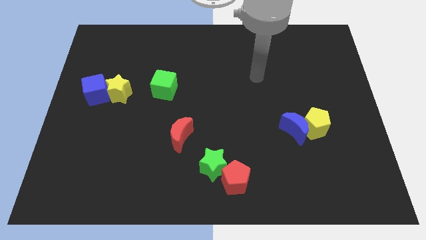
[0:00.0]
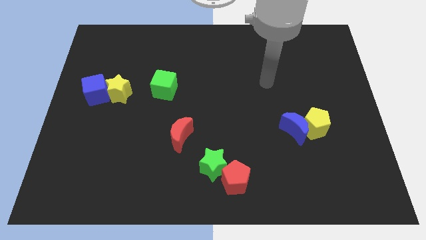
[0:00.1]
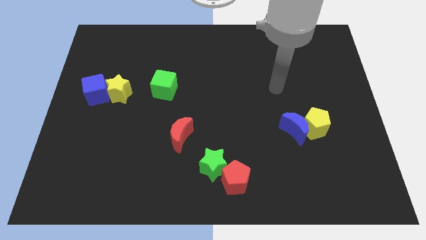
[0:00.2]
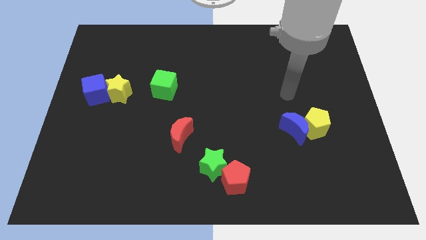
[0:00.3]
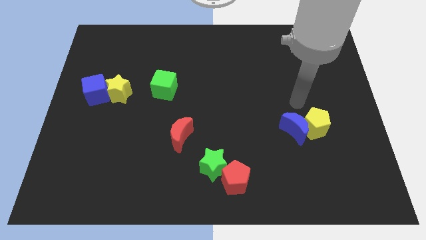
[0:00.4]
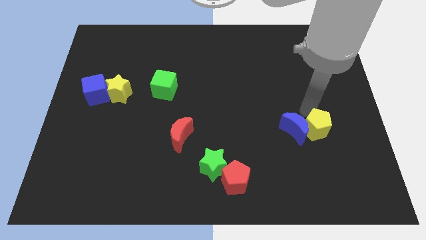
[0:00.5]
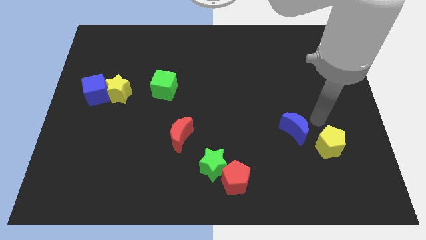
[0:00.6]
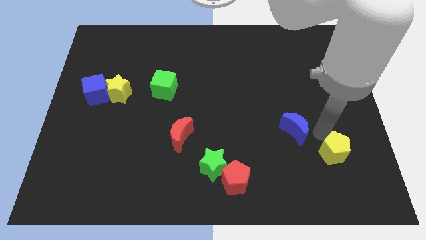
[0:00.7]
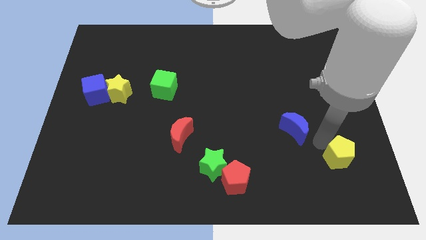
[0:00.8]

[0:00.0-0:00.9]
separate the blue moon from the yellow pentagon

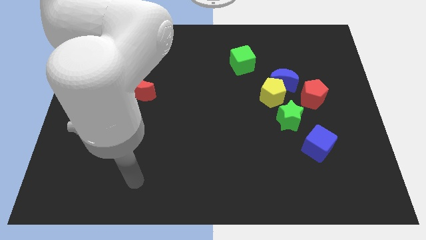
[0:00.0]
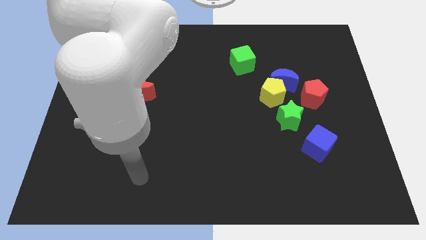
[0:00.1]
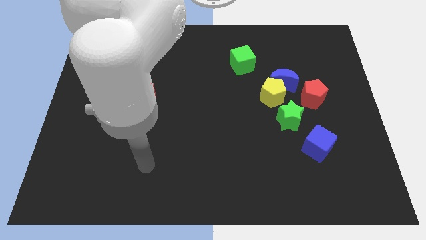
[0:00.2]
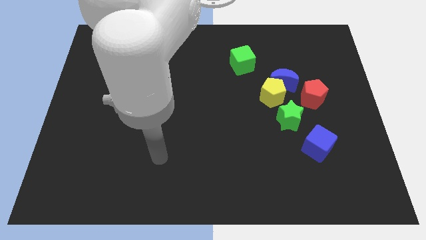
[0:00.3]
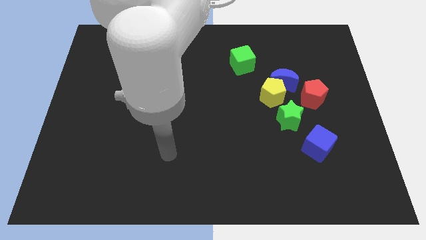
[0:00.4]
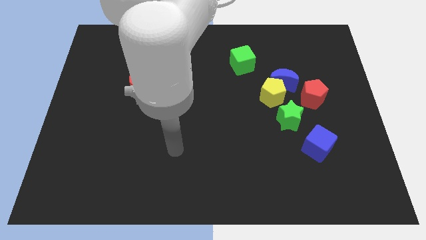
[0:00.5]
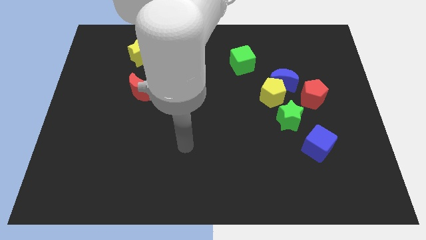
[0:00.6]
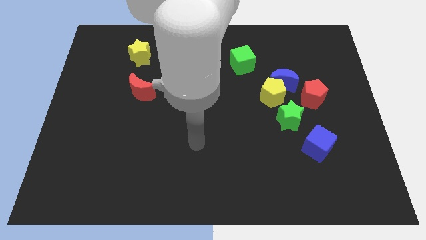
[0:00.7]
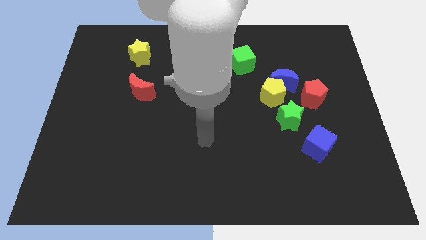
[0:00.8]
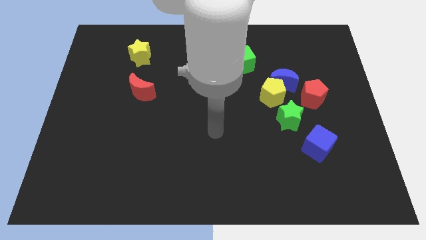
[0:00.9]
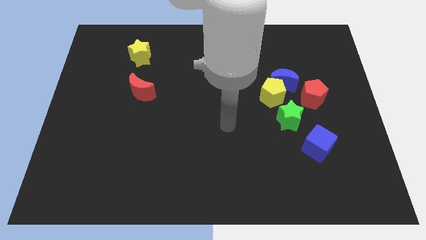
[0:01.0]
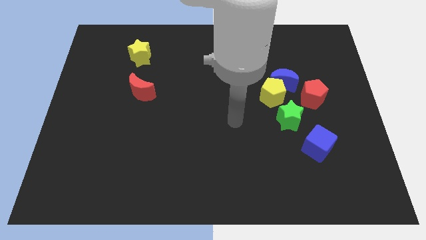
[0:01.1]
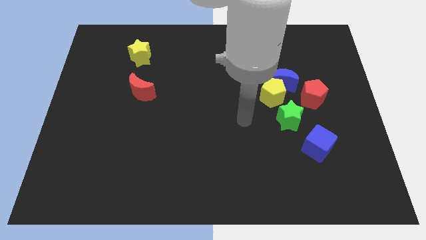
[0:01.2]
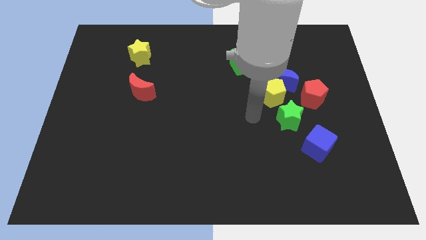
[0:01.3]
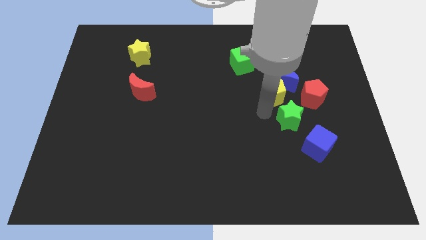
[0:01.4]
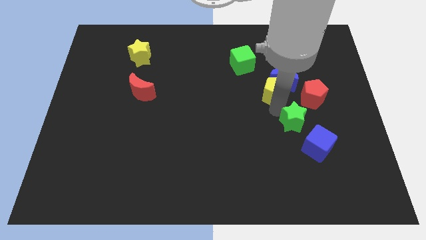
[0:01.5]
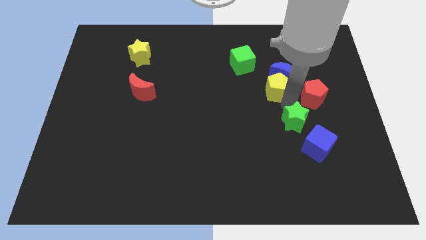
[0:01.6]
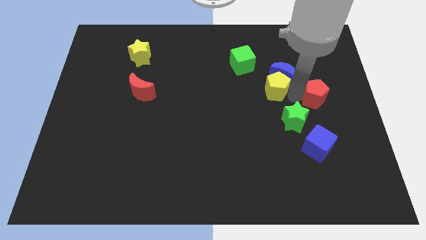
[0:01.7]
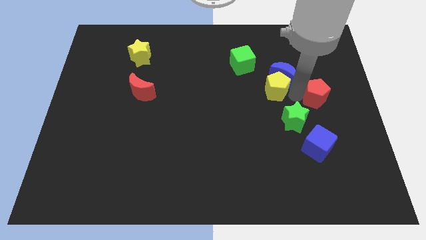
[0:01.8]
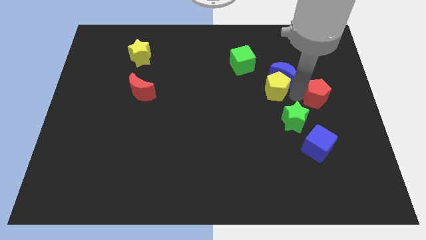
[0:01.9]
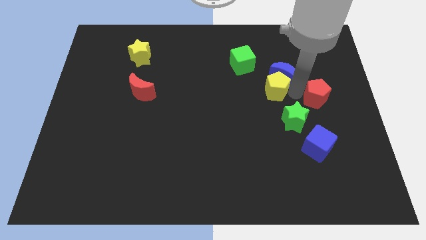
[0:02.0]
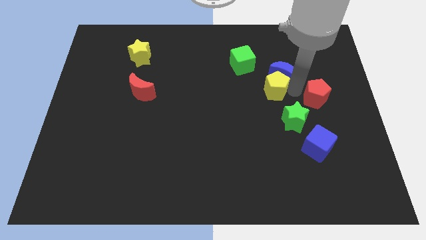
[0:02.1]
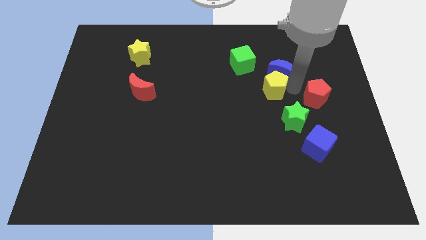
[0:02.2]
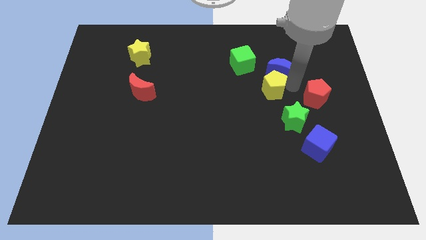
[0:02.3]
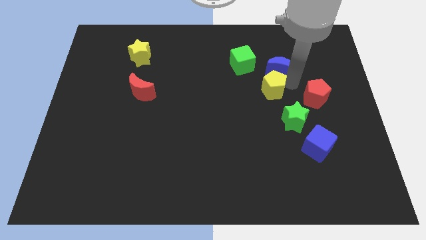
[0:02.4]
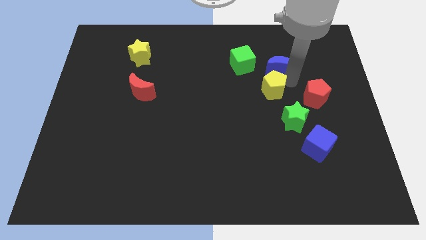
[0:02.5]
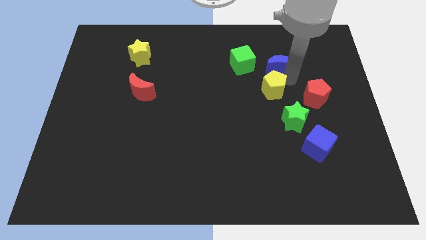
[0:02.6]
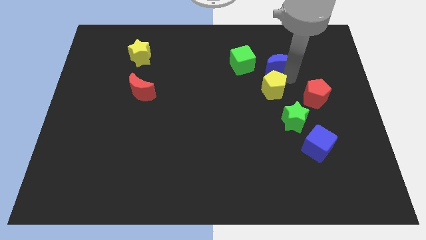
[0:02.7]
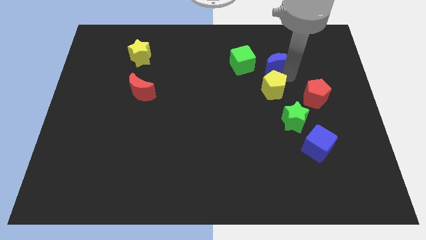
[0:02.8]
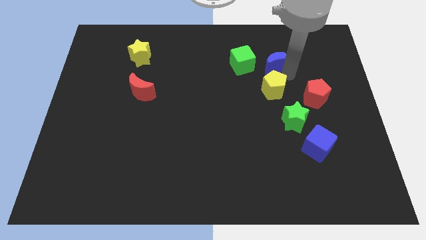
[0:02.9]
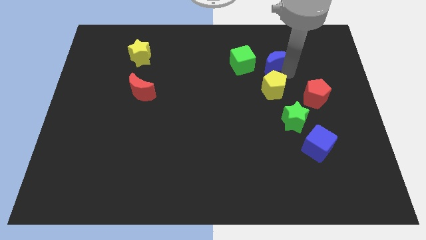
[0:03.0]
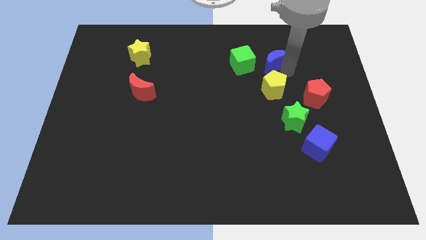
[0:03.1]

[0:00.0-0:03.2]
separate the blue moon from the yellow pentagon and red pentagon

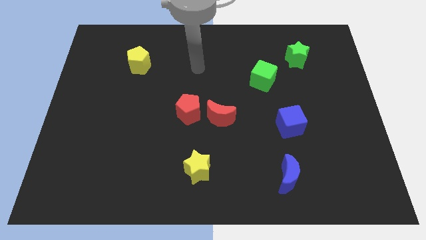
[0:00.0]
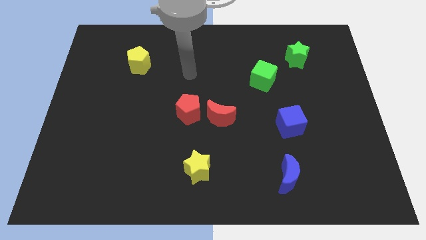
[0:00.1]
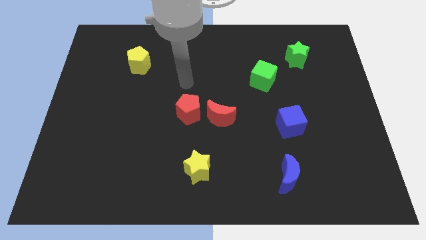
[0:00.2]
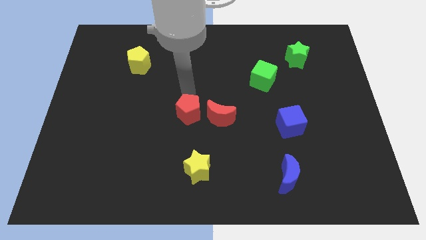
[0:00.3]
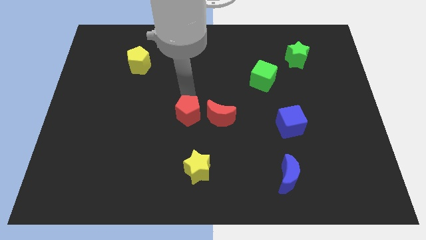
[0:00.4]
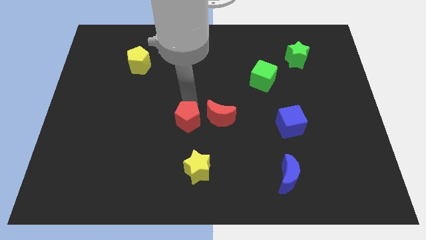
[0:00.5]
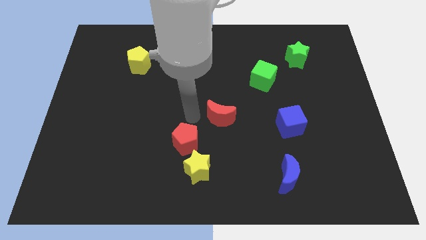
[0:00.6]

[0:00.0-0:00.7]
move the red moon away from the red pentagon

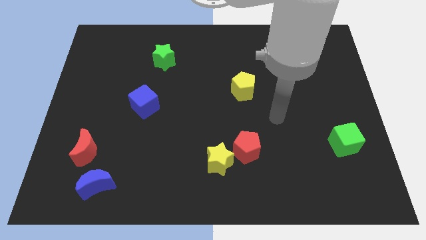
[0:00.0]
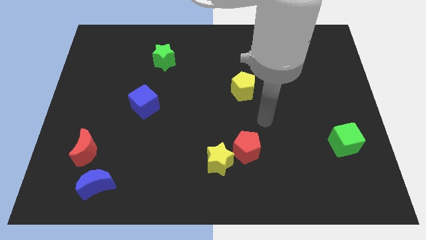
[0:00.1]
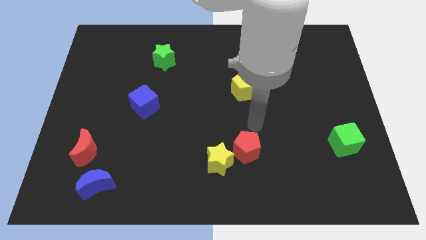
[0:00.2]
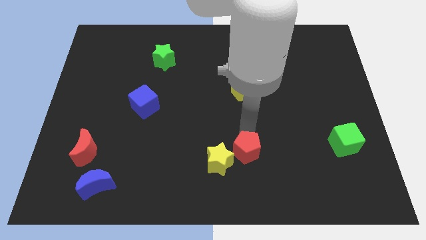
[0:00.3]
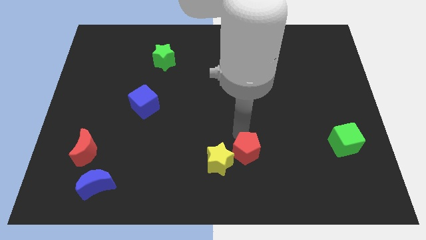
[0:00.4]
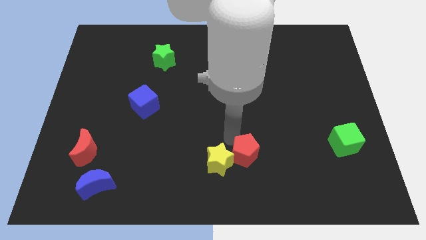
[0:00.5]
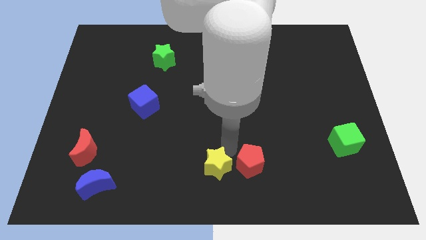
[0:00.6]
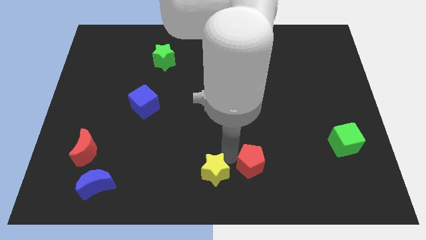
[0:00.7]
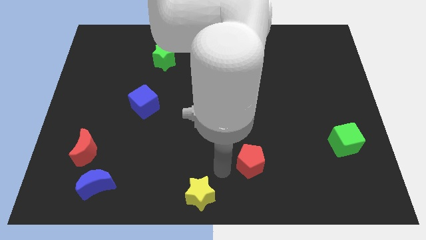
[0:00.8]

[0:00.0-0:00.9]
pull the red pentagon apart from the yellow star

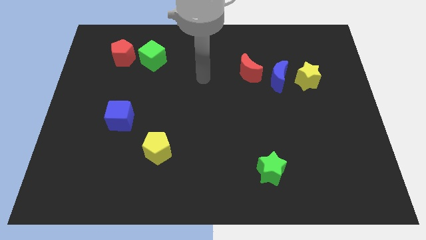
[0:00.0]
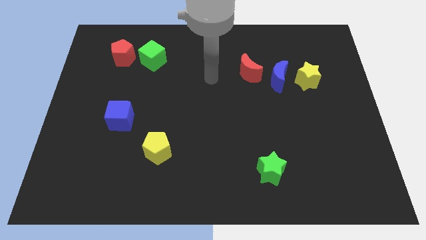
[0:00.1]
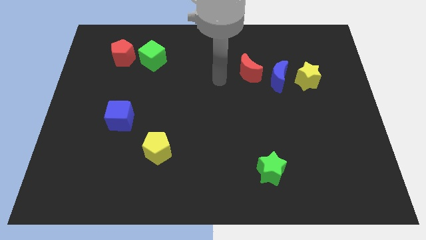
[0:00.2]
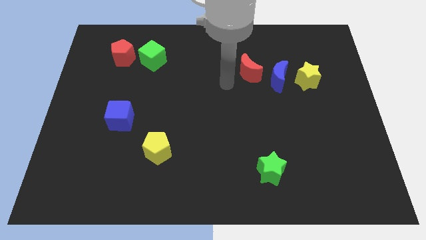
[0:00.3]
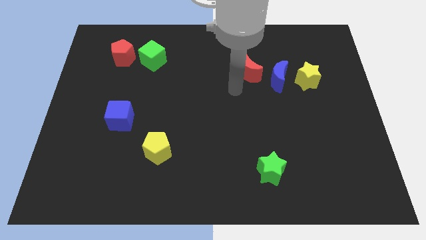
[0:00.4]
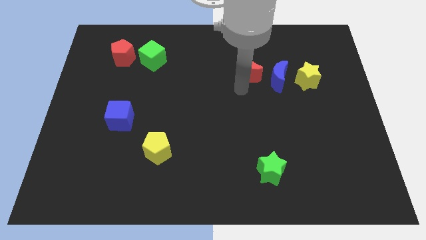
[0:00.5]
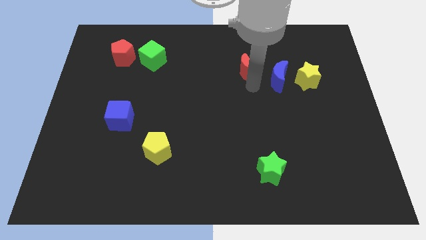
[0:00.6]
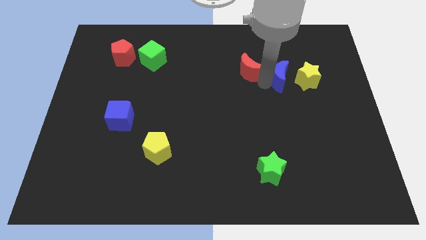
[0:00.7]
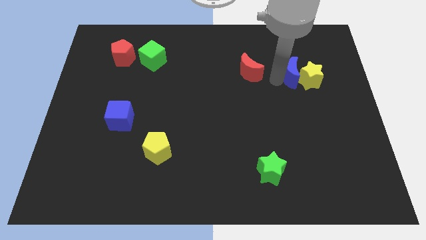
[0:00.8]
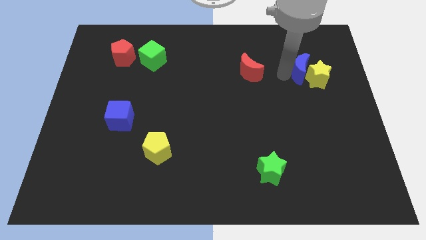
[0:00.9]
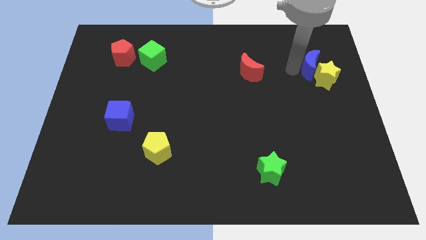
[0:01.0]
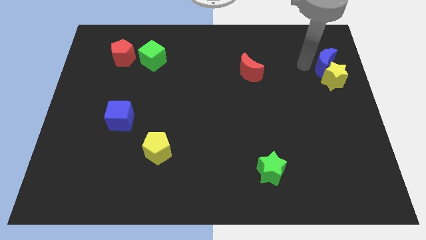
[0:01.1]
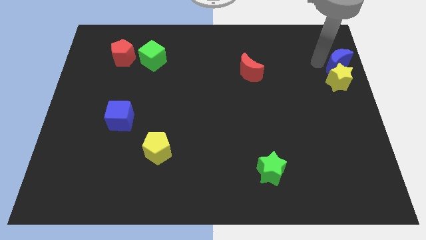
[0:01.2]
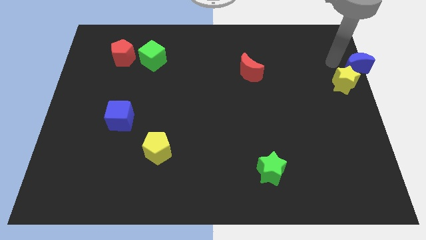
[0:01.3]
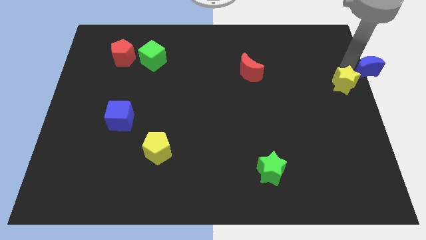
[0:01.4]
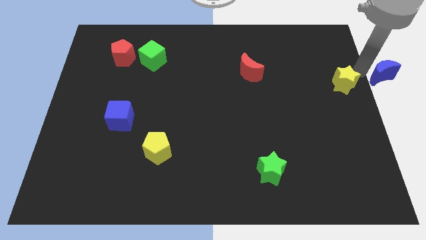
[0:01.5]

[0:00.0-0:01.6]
pull the yellow star apart from the blue moon

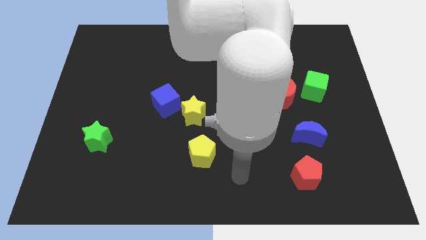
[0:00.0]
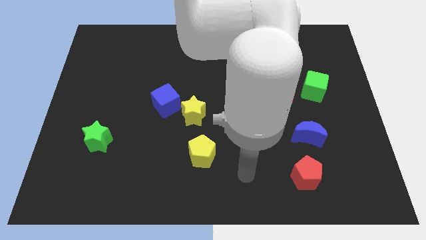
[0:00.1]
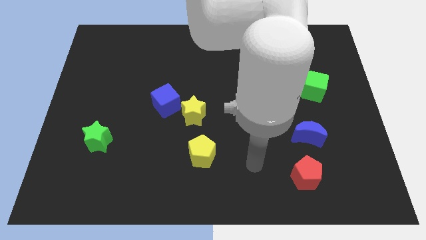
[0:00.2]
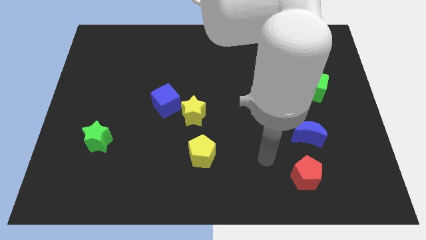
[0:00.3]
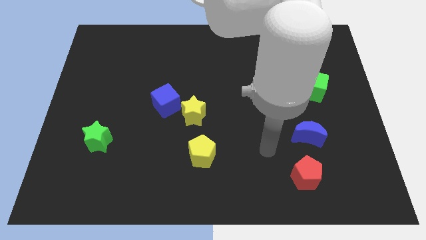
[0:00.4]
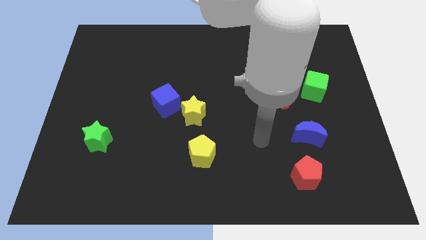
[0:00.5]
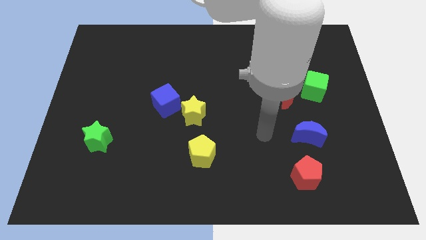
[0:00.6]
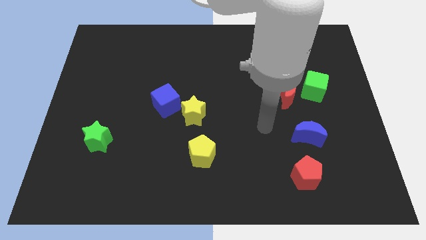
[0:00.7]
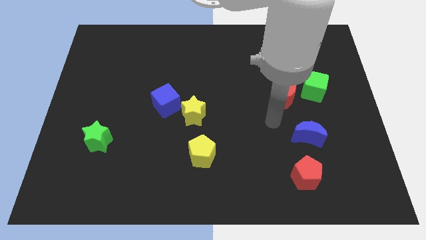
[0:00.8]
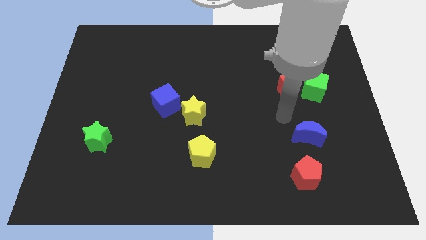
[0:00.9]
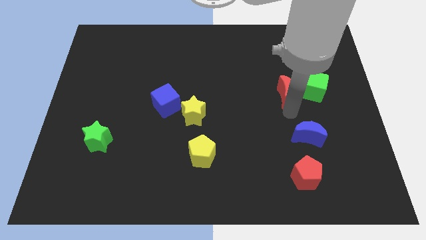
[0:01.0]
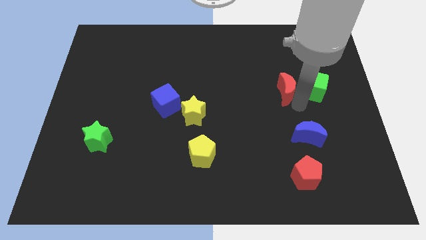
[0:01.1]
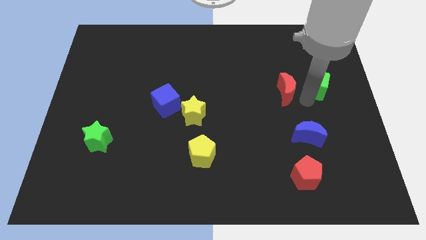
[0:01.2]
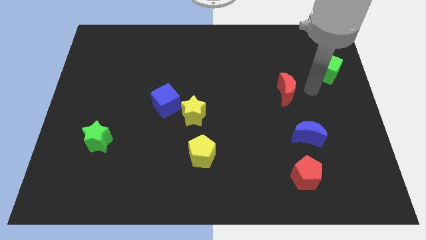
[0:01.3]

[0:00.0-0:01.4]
separate the red moon from the green cube

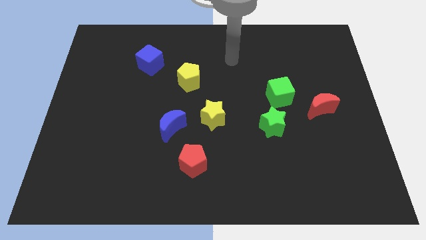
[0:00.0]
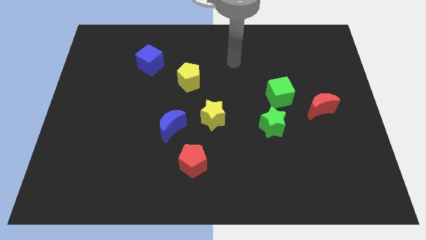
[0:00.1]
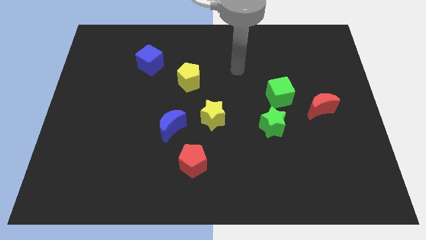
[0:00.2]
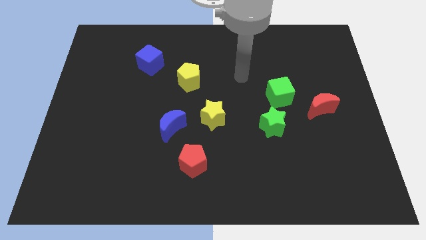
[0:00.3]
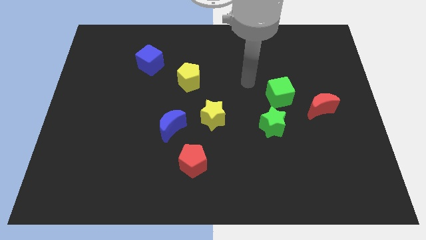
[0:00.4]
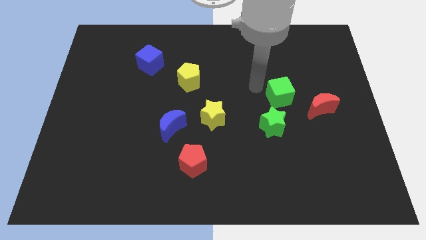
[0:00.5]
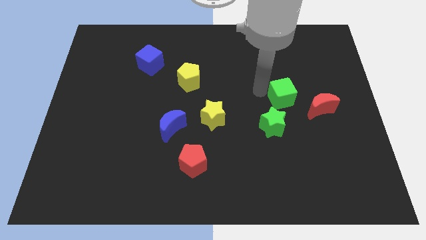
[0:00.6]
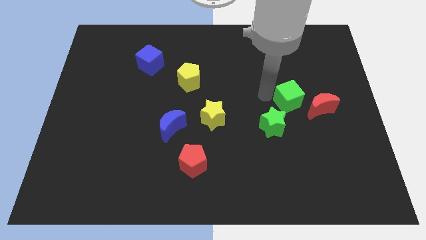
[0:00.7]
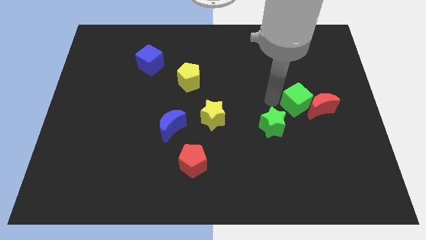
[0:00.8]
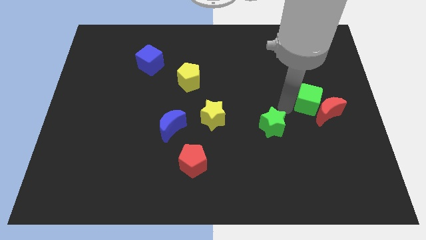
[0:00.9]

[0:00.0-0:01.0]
separate the green star from the green cube
